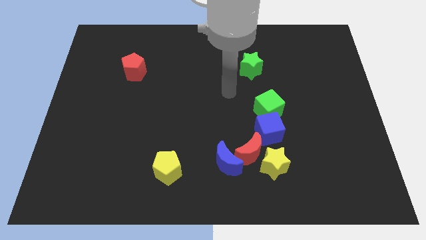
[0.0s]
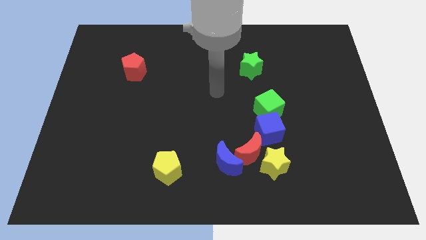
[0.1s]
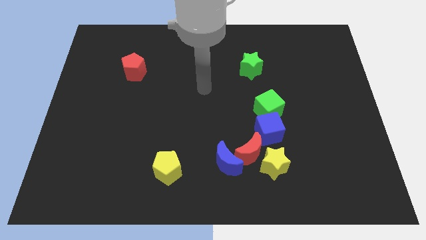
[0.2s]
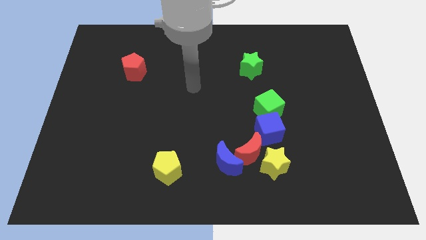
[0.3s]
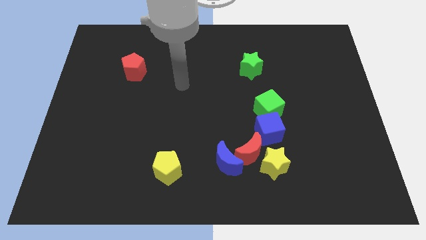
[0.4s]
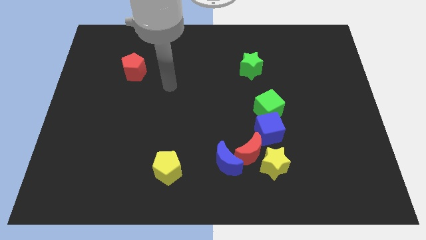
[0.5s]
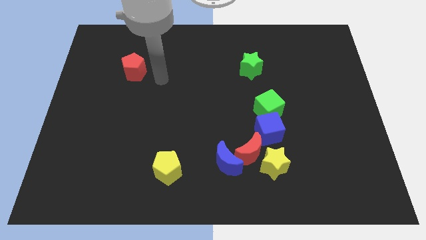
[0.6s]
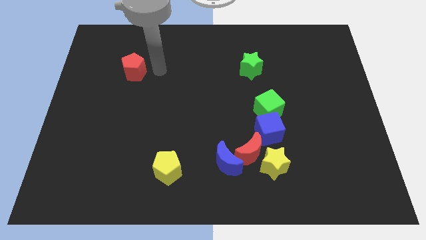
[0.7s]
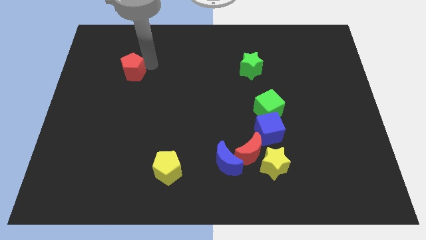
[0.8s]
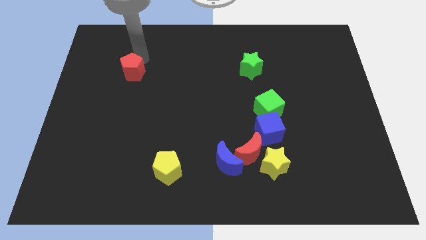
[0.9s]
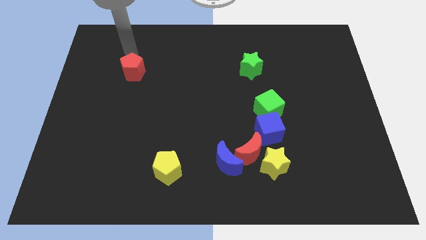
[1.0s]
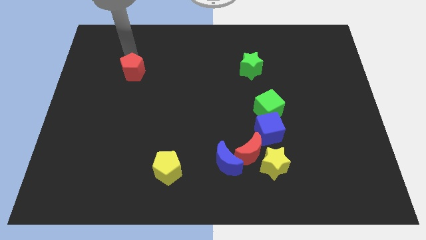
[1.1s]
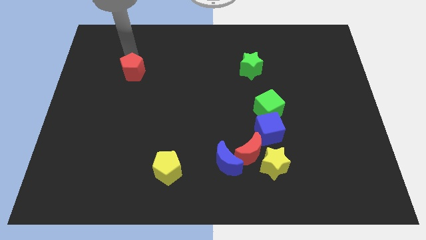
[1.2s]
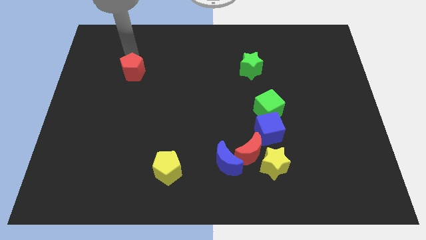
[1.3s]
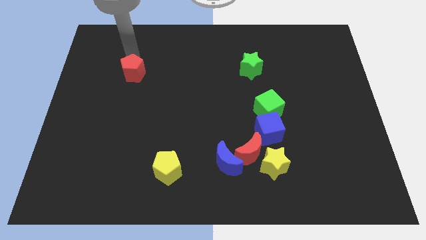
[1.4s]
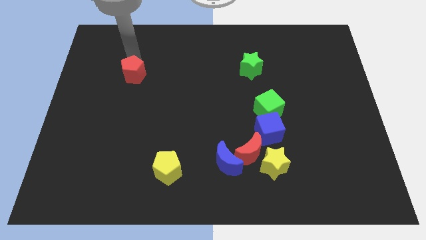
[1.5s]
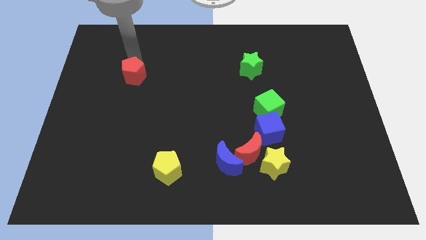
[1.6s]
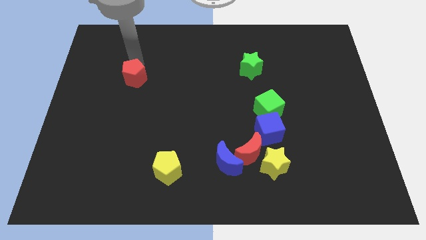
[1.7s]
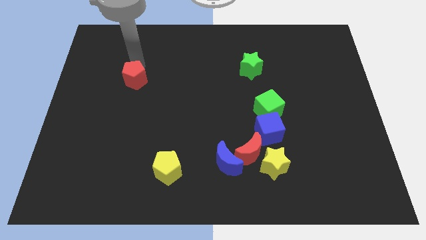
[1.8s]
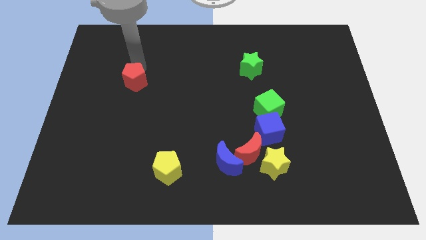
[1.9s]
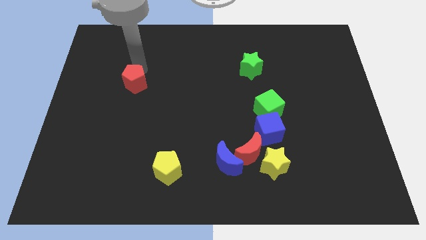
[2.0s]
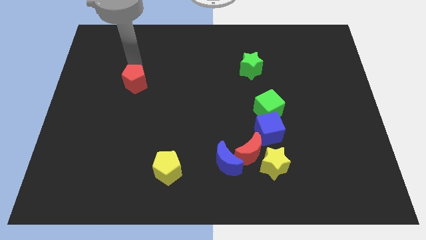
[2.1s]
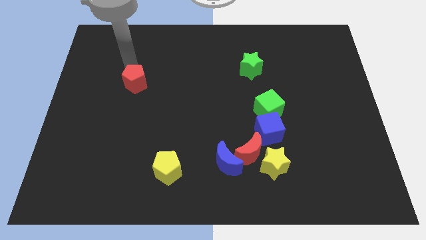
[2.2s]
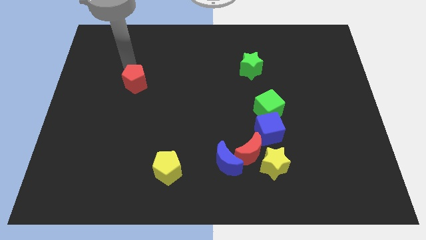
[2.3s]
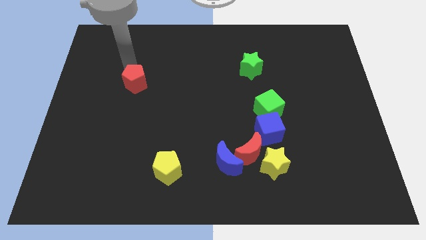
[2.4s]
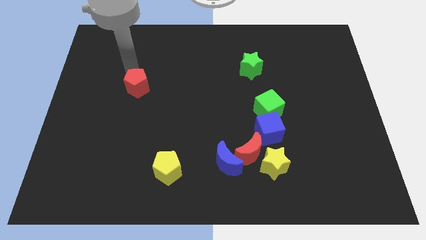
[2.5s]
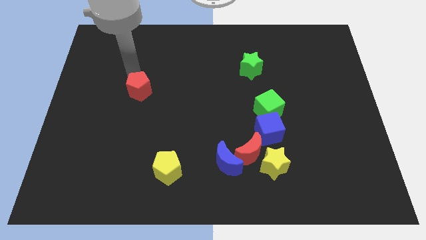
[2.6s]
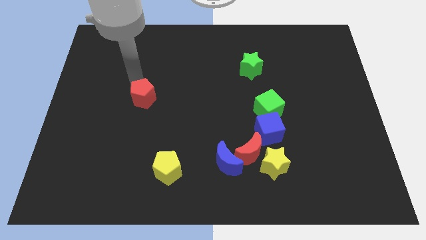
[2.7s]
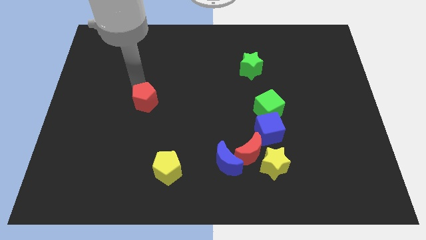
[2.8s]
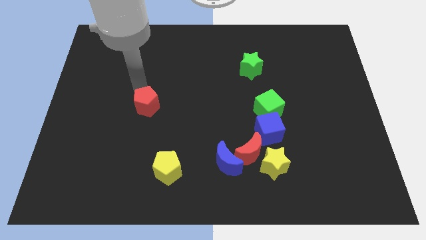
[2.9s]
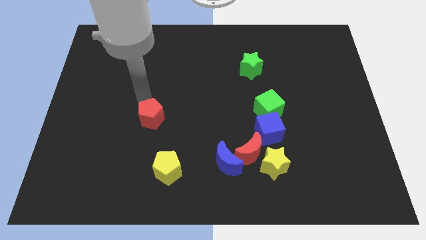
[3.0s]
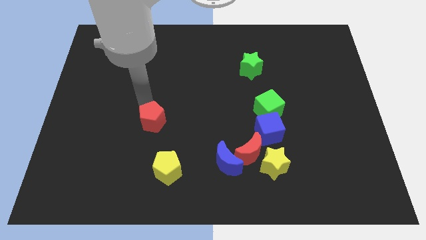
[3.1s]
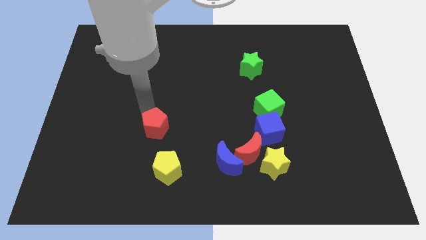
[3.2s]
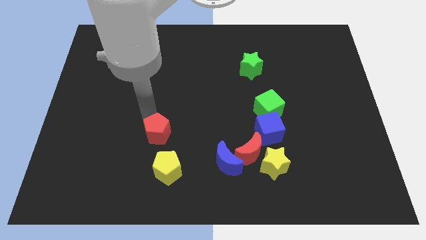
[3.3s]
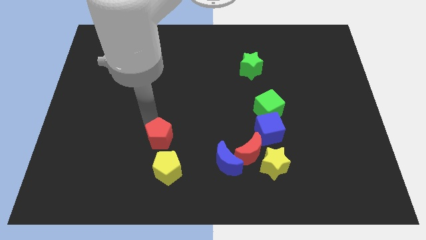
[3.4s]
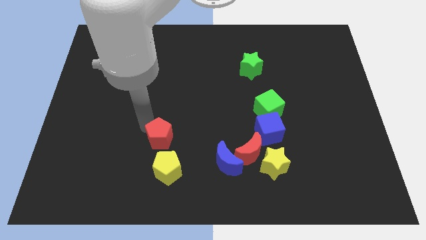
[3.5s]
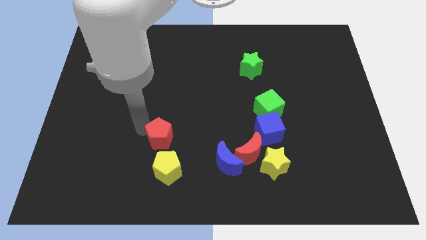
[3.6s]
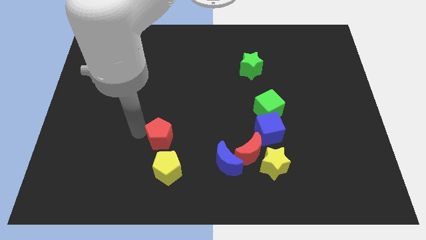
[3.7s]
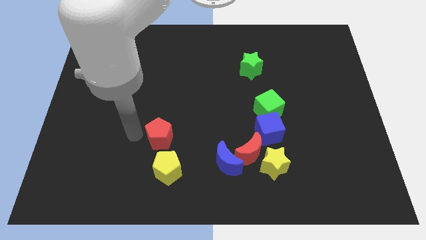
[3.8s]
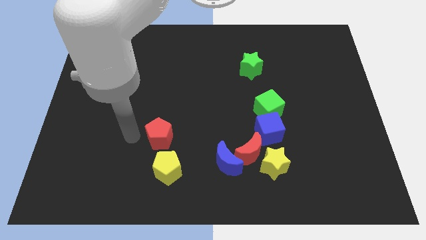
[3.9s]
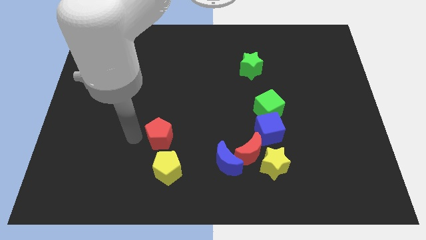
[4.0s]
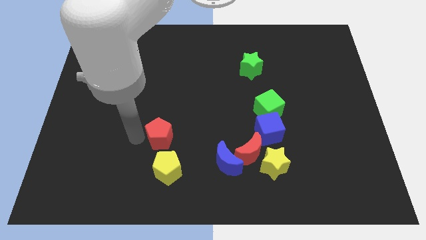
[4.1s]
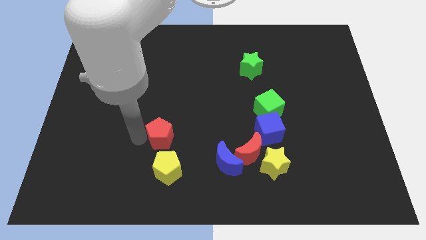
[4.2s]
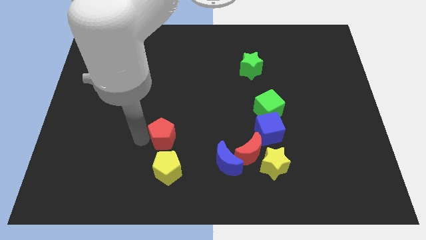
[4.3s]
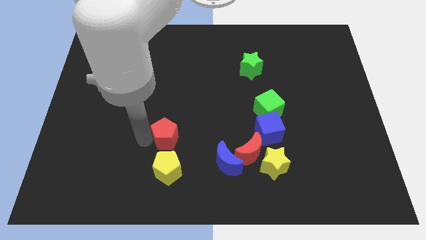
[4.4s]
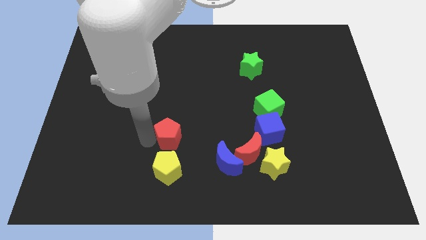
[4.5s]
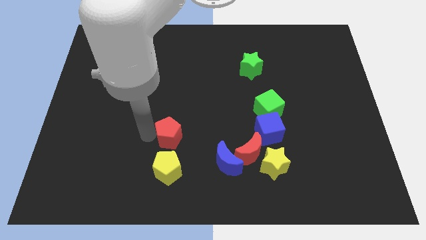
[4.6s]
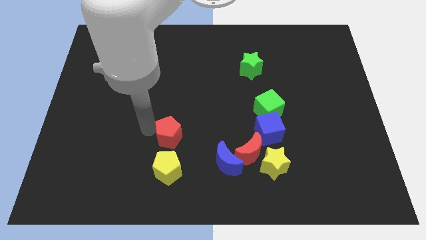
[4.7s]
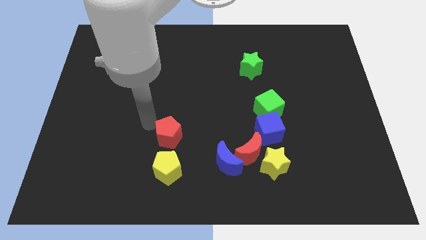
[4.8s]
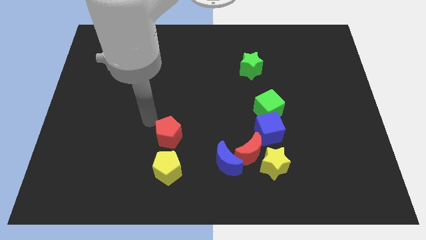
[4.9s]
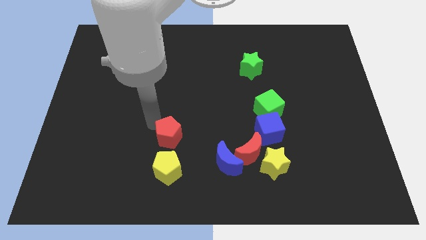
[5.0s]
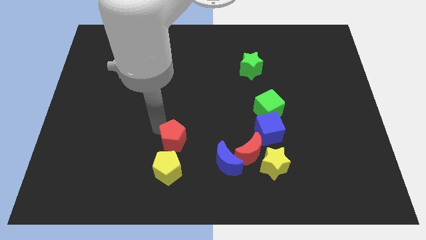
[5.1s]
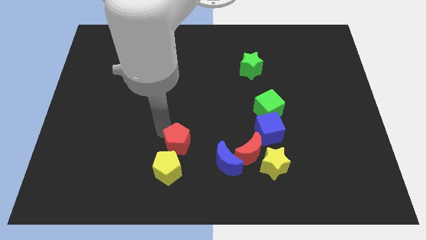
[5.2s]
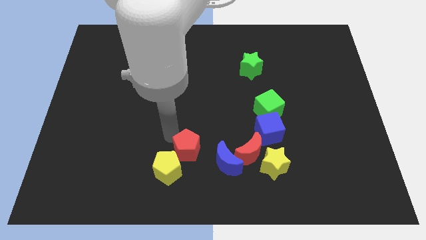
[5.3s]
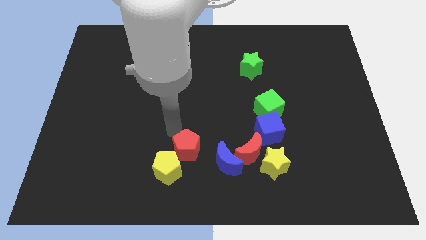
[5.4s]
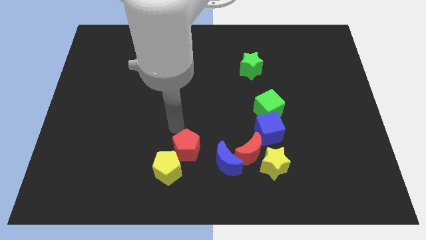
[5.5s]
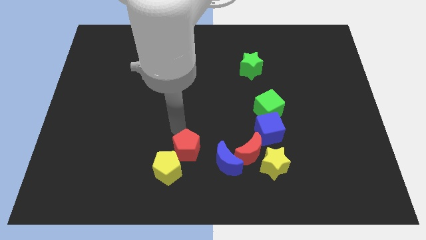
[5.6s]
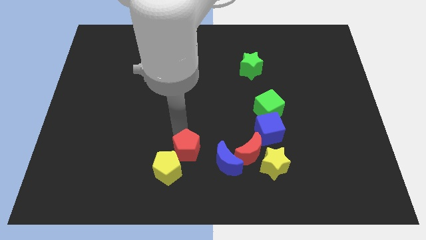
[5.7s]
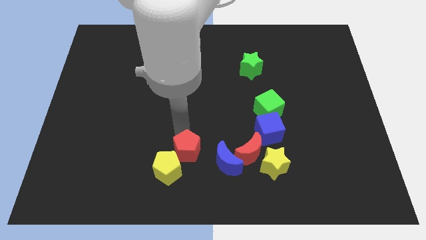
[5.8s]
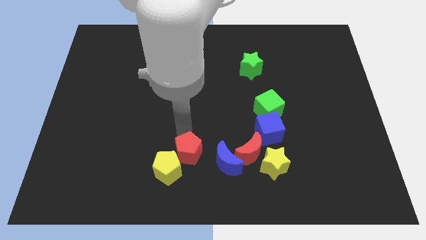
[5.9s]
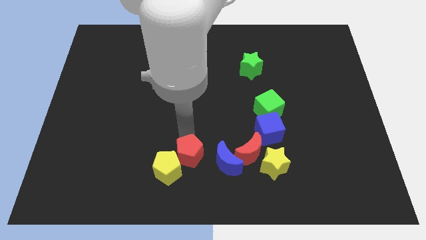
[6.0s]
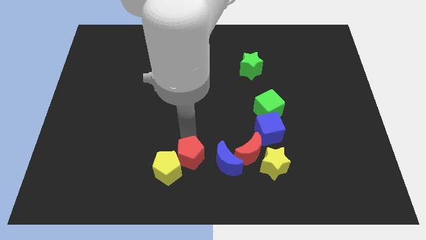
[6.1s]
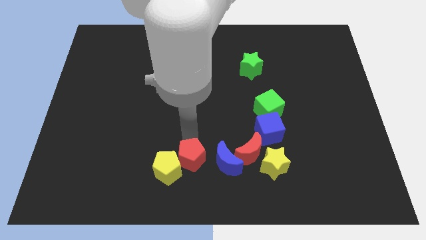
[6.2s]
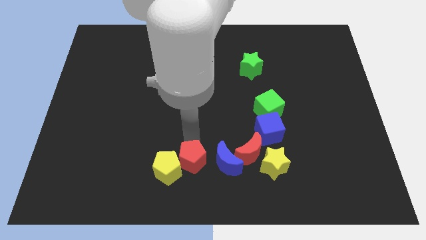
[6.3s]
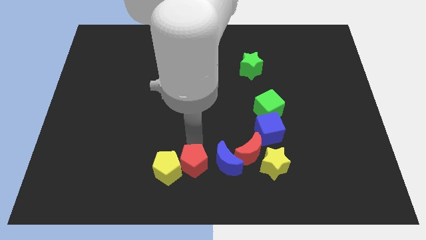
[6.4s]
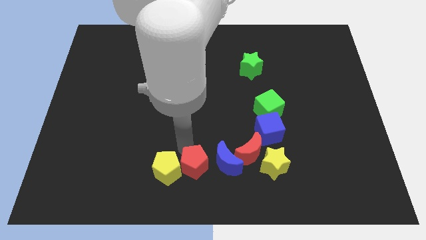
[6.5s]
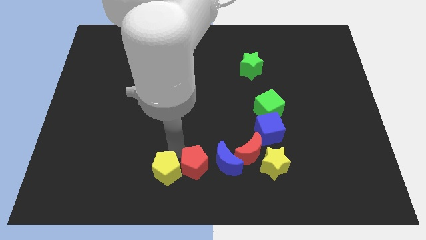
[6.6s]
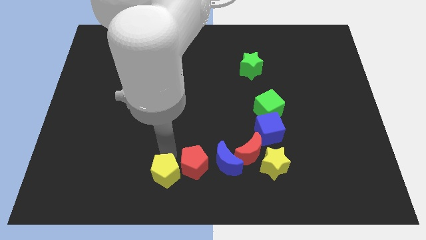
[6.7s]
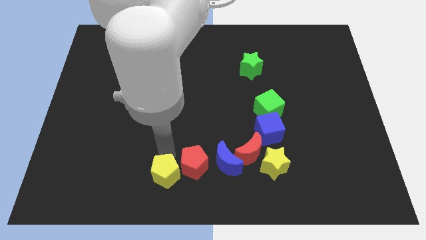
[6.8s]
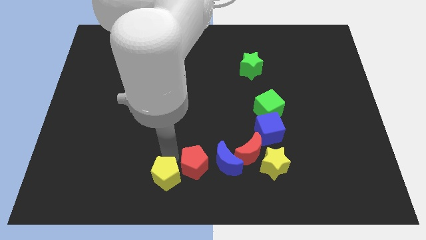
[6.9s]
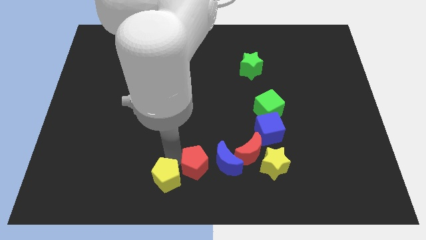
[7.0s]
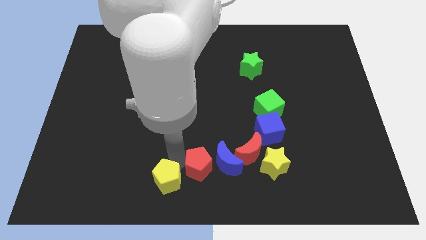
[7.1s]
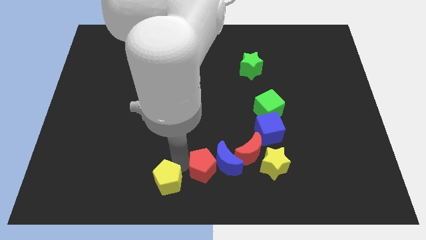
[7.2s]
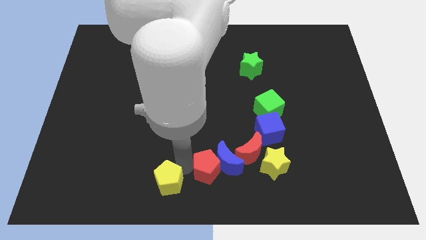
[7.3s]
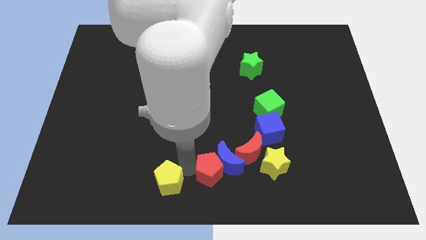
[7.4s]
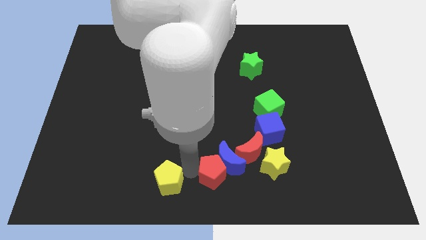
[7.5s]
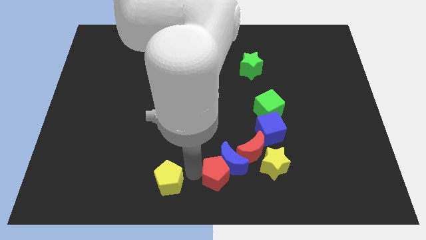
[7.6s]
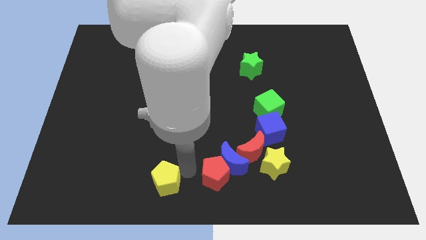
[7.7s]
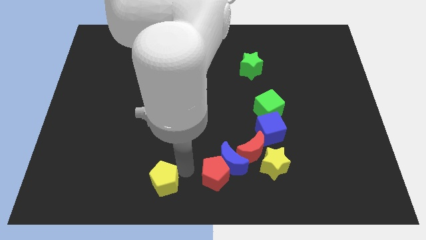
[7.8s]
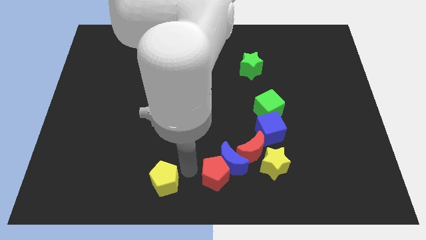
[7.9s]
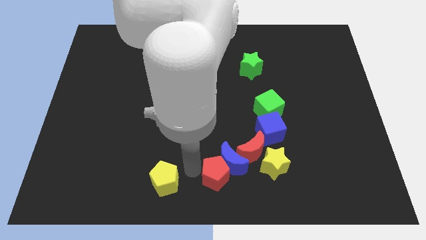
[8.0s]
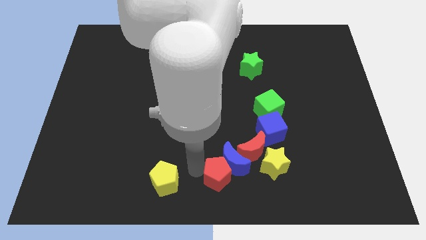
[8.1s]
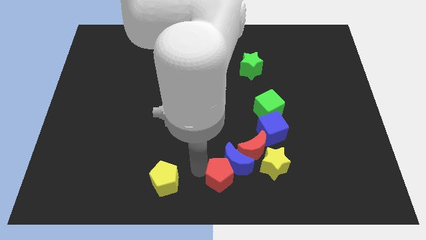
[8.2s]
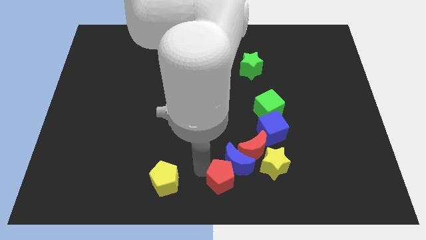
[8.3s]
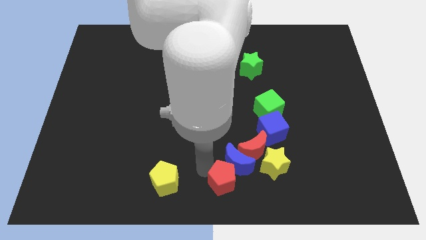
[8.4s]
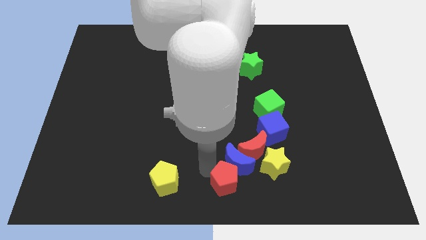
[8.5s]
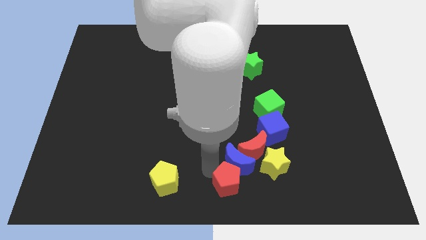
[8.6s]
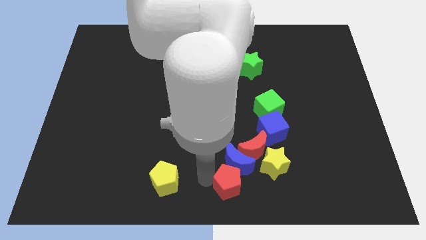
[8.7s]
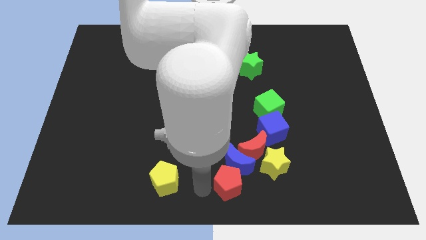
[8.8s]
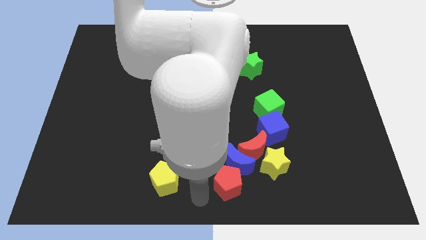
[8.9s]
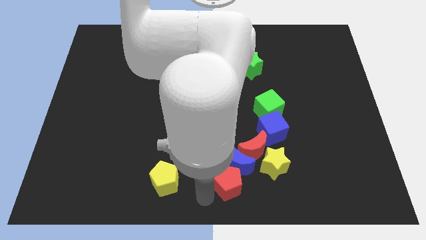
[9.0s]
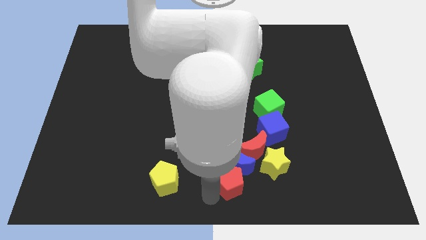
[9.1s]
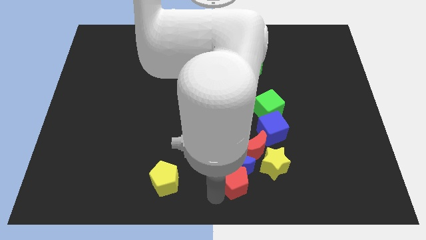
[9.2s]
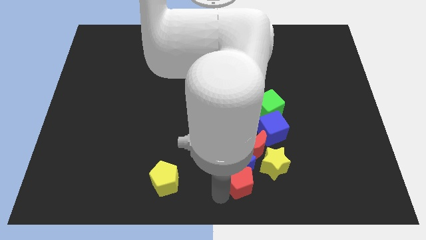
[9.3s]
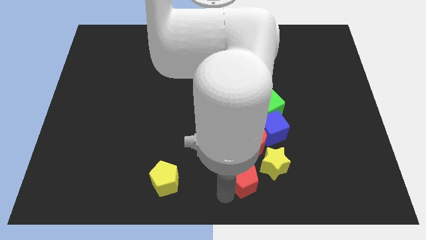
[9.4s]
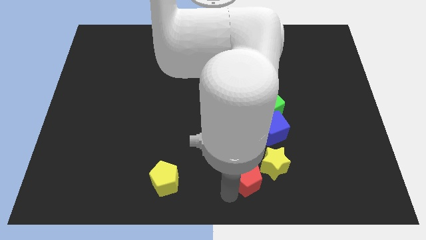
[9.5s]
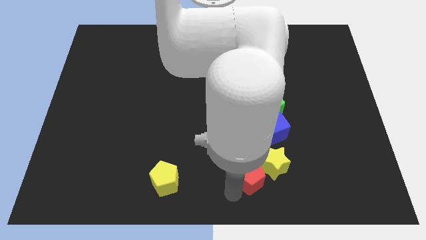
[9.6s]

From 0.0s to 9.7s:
move the red pentagon towards the yellow star
